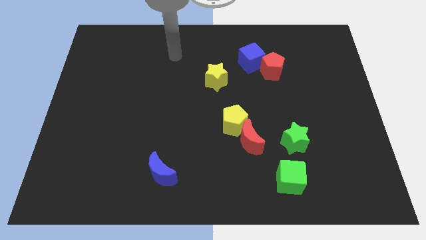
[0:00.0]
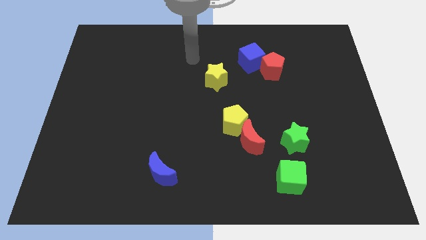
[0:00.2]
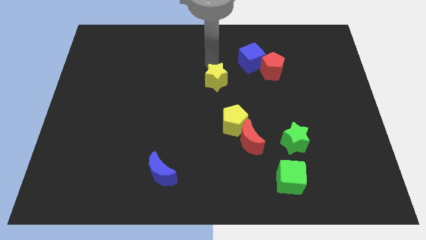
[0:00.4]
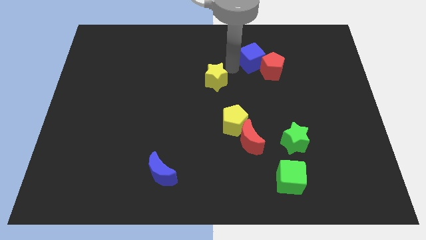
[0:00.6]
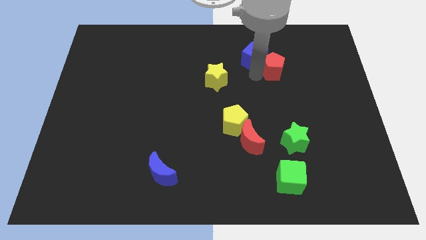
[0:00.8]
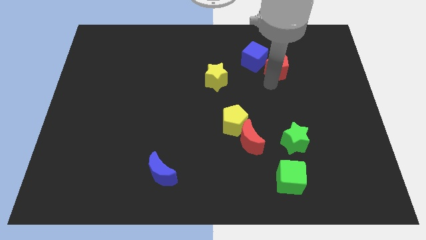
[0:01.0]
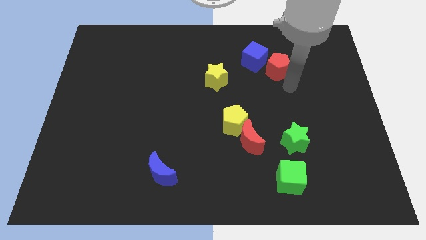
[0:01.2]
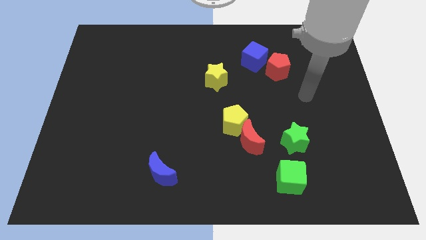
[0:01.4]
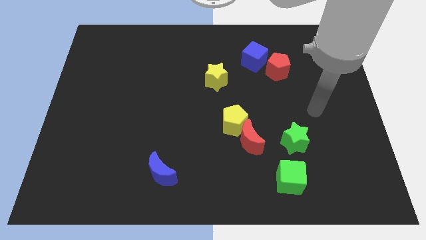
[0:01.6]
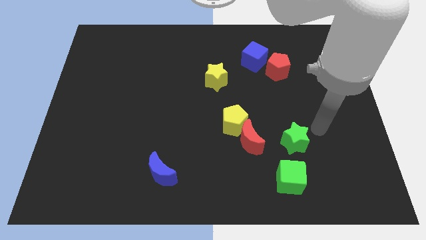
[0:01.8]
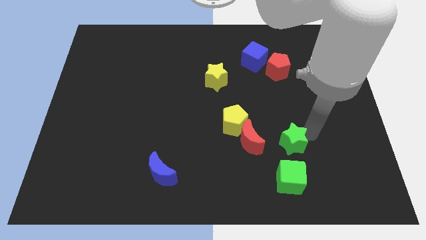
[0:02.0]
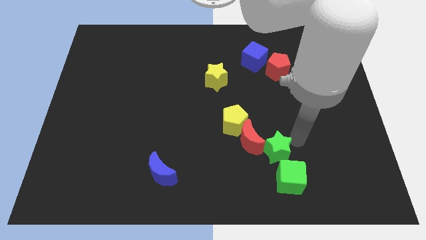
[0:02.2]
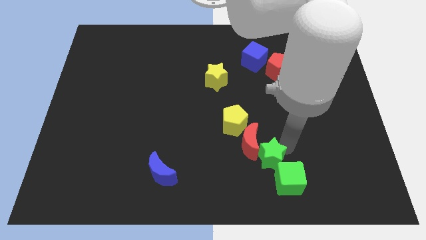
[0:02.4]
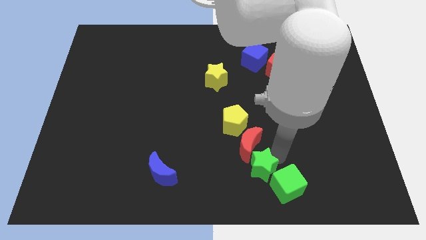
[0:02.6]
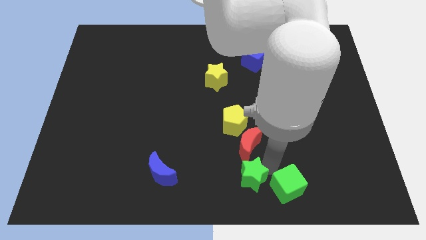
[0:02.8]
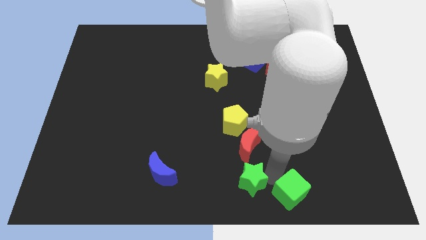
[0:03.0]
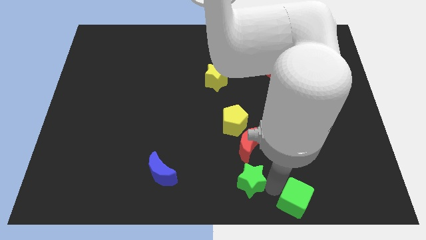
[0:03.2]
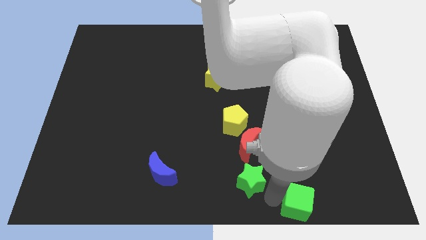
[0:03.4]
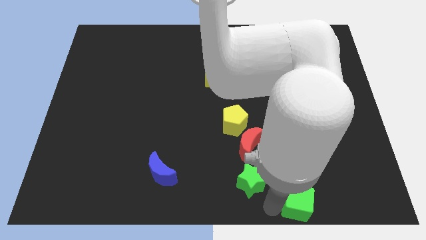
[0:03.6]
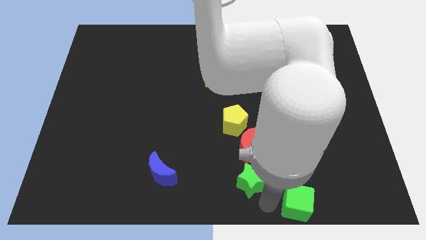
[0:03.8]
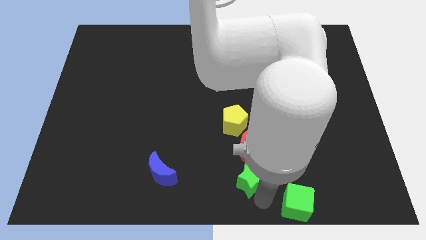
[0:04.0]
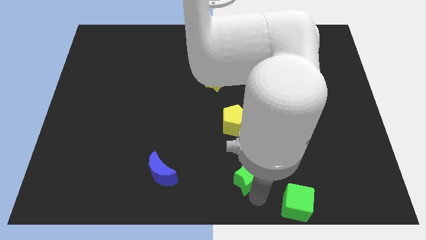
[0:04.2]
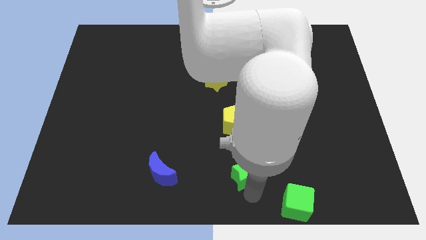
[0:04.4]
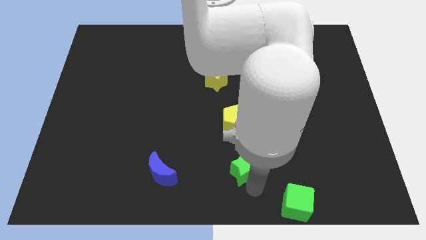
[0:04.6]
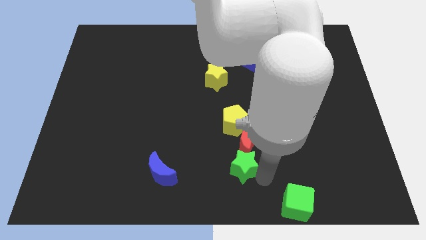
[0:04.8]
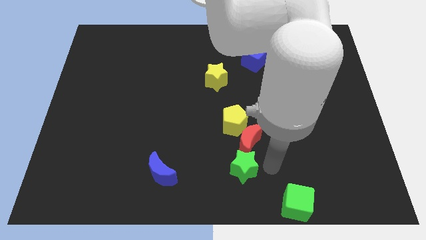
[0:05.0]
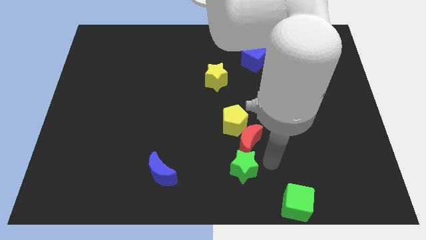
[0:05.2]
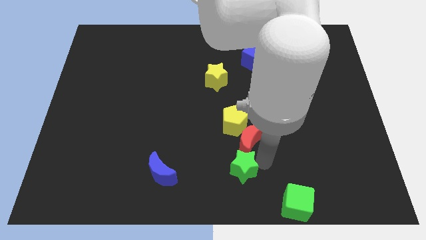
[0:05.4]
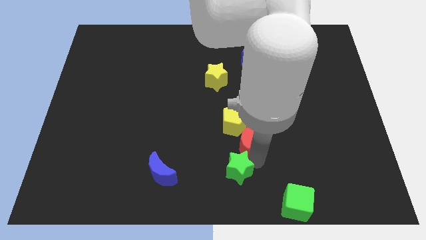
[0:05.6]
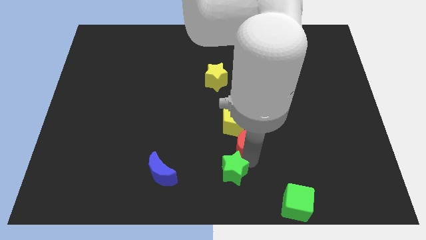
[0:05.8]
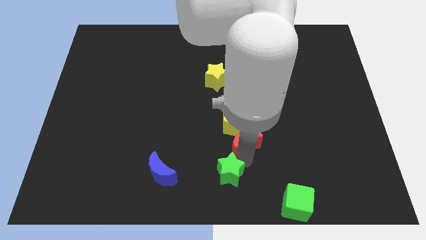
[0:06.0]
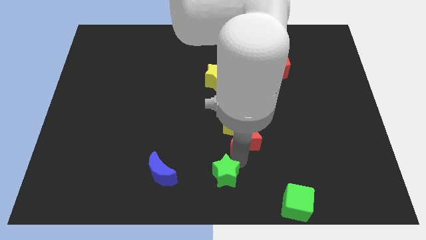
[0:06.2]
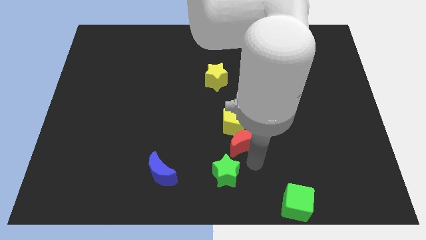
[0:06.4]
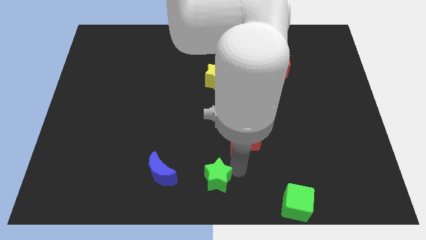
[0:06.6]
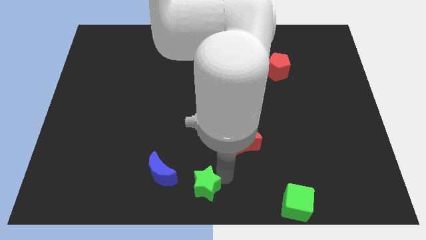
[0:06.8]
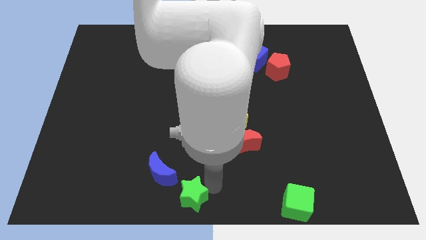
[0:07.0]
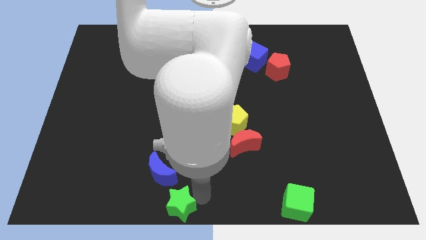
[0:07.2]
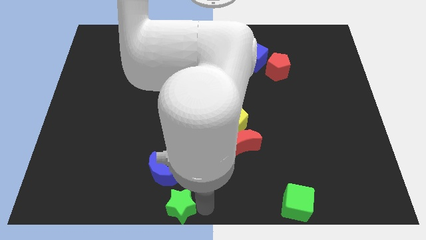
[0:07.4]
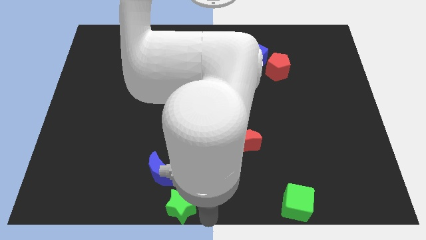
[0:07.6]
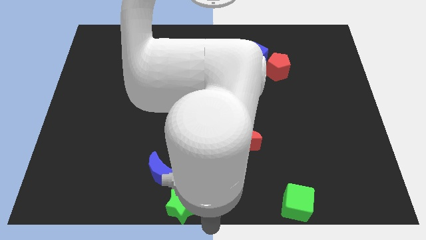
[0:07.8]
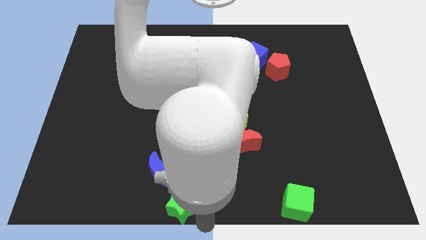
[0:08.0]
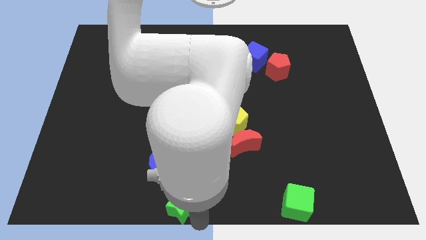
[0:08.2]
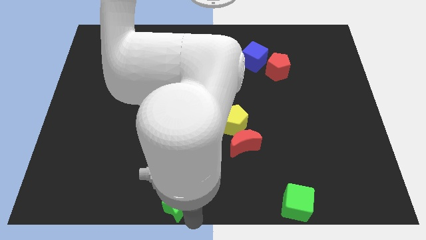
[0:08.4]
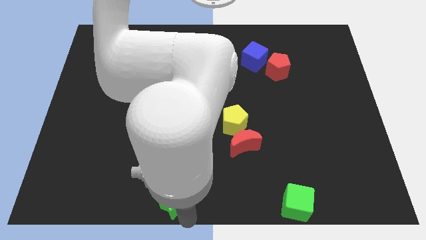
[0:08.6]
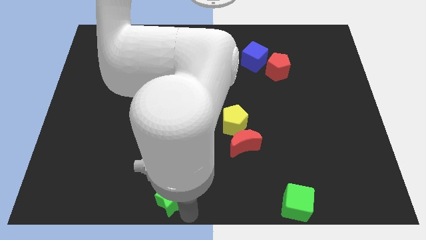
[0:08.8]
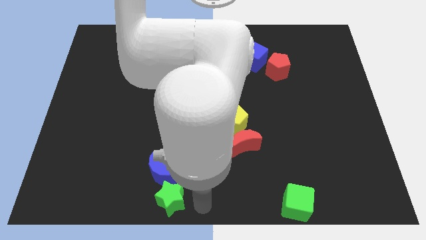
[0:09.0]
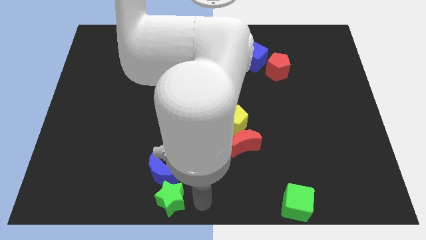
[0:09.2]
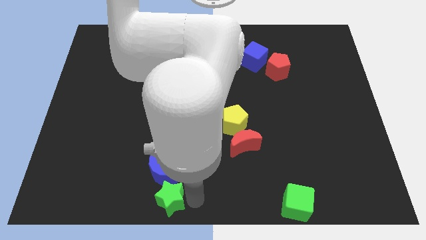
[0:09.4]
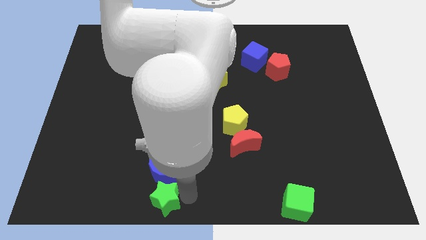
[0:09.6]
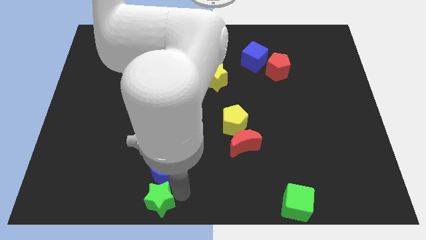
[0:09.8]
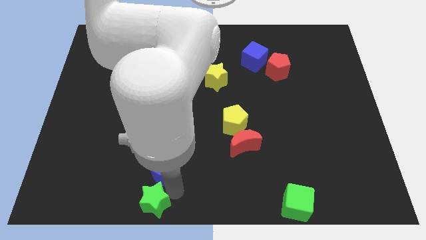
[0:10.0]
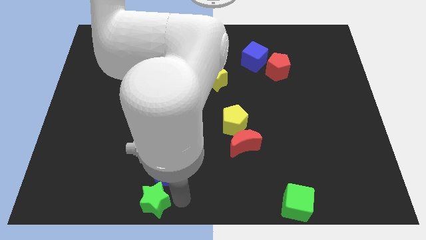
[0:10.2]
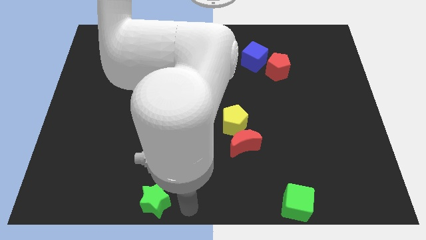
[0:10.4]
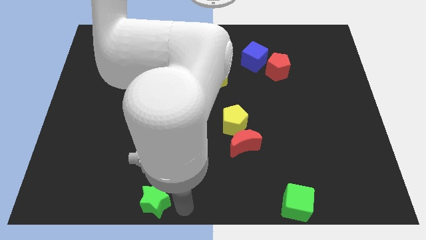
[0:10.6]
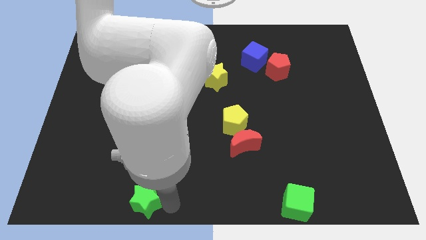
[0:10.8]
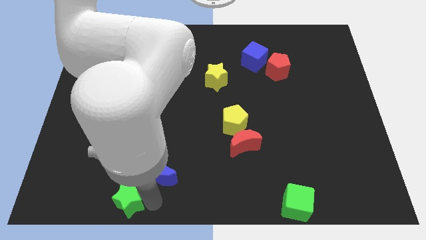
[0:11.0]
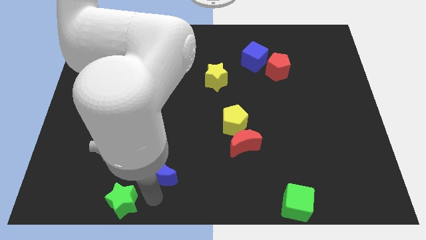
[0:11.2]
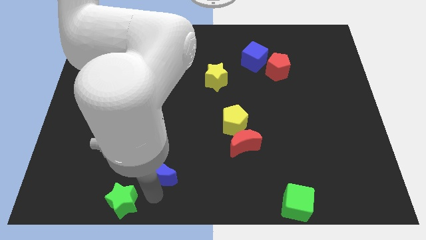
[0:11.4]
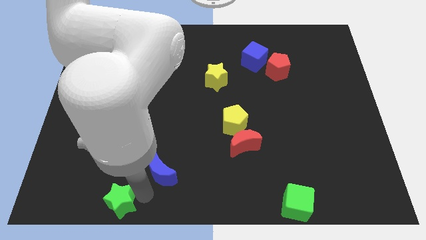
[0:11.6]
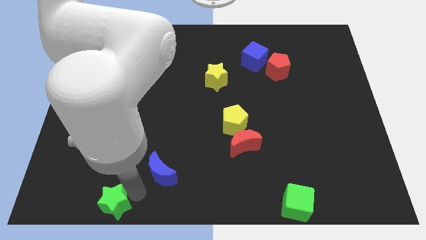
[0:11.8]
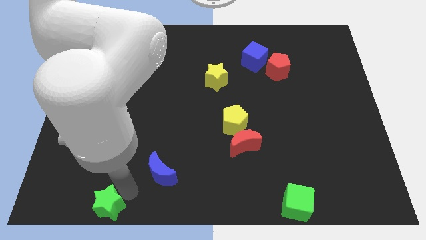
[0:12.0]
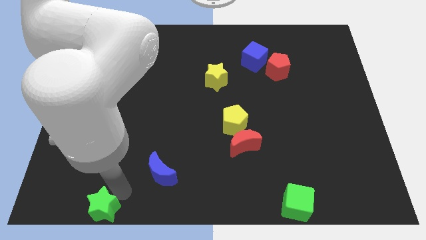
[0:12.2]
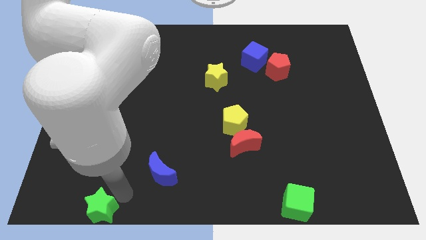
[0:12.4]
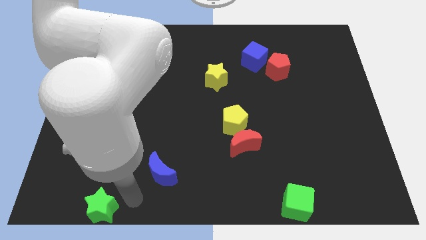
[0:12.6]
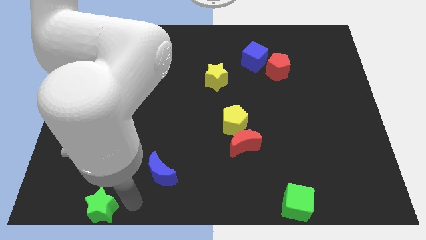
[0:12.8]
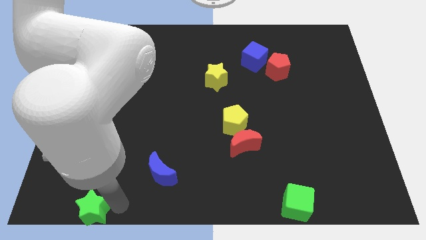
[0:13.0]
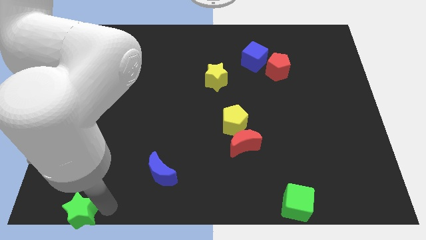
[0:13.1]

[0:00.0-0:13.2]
push the green star to the bottom left of the board
